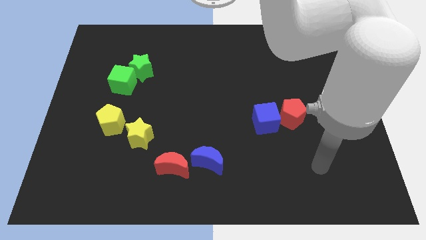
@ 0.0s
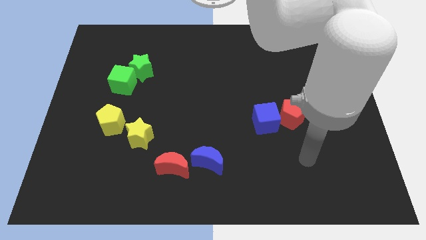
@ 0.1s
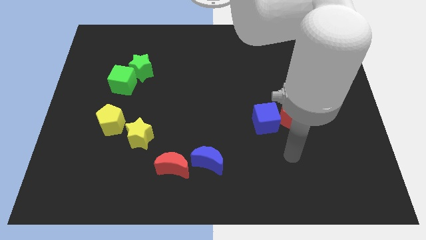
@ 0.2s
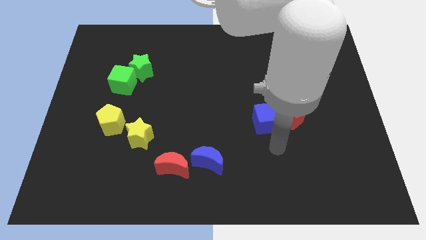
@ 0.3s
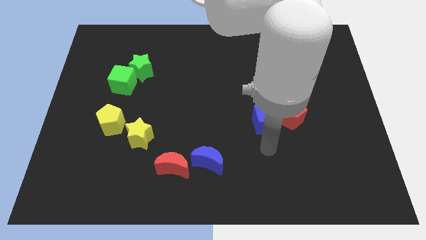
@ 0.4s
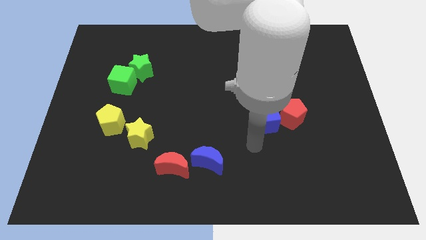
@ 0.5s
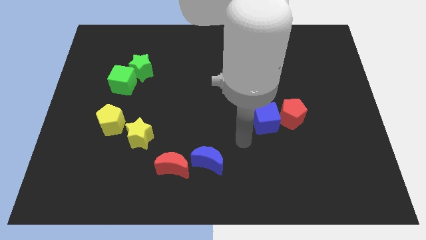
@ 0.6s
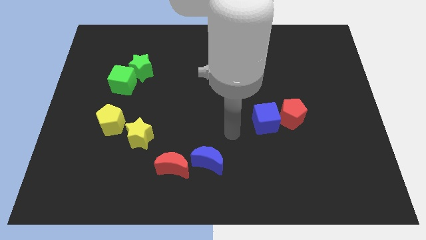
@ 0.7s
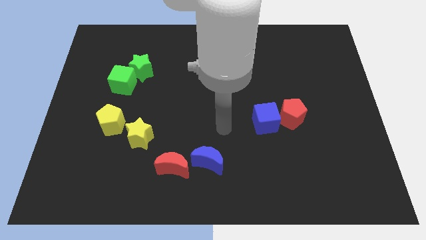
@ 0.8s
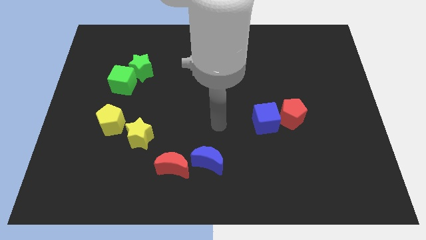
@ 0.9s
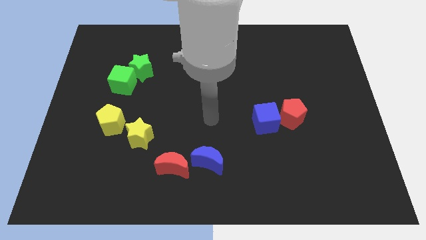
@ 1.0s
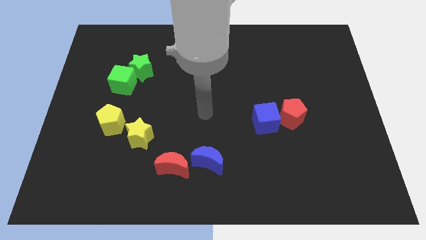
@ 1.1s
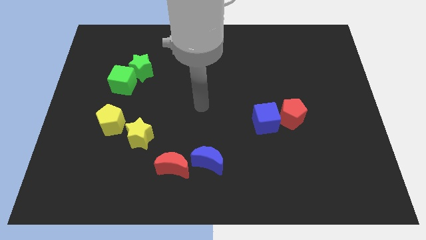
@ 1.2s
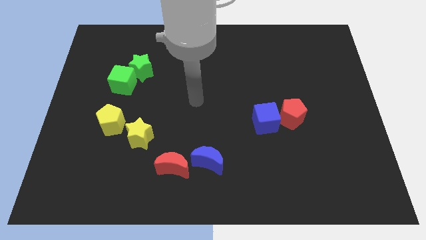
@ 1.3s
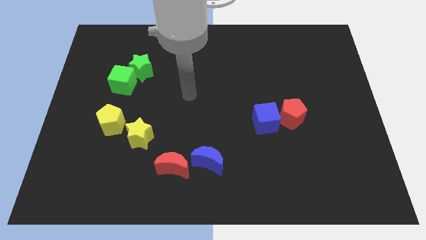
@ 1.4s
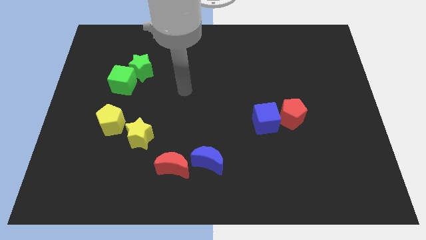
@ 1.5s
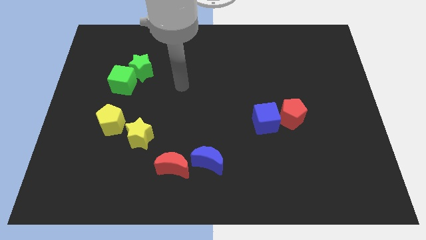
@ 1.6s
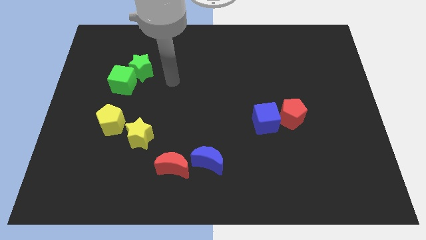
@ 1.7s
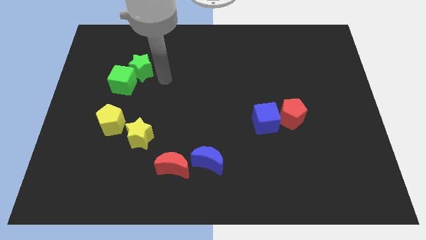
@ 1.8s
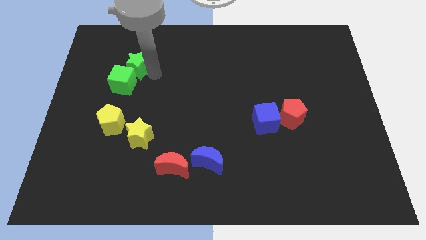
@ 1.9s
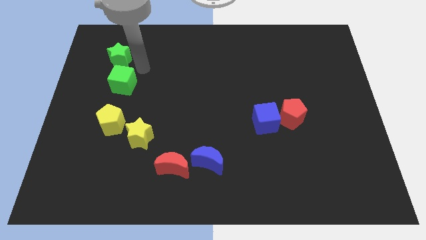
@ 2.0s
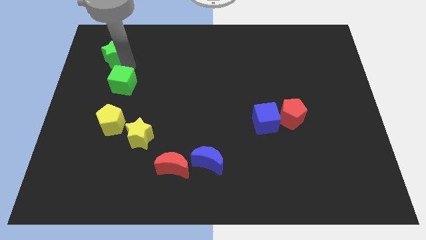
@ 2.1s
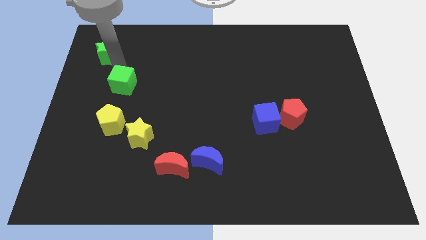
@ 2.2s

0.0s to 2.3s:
move the green cube away from the green star

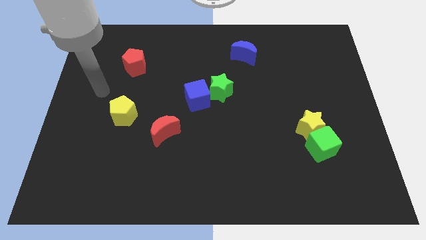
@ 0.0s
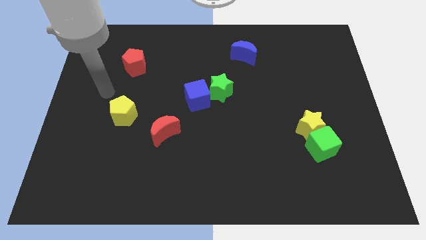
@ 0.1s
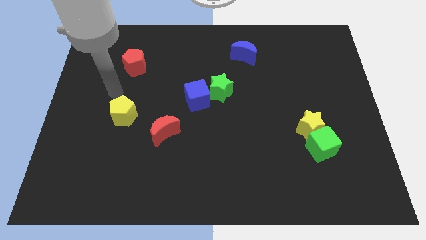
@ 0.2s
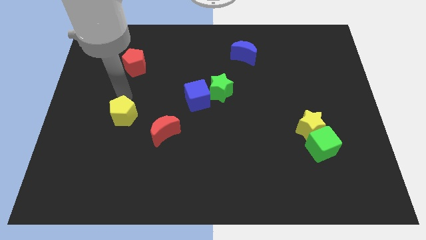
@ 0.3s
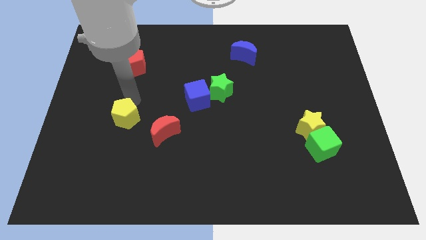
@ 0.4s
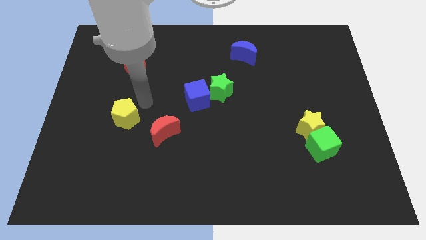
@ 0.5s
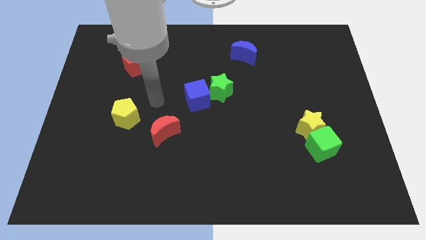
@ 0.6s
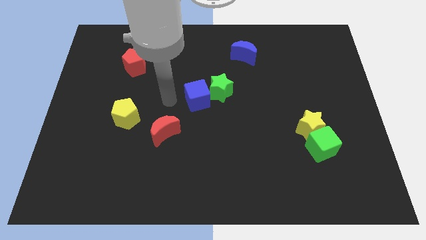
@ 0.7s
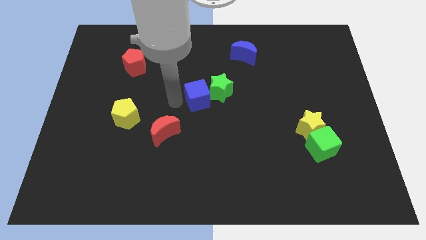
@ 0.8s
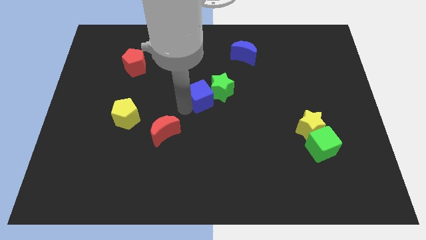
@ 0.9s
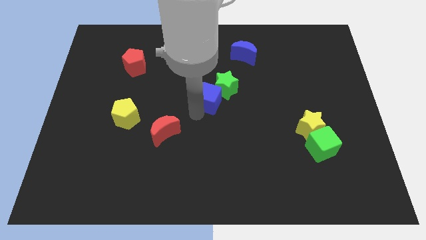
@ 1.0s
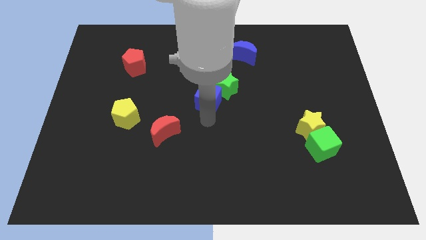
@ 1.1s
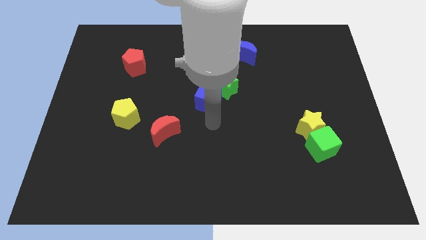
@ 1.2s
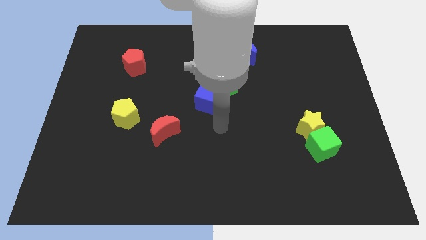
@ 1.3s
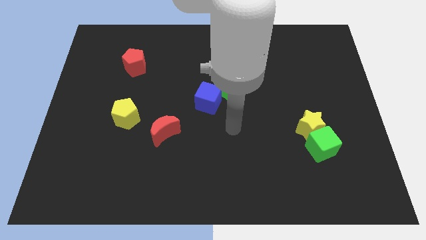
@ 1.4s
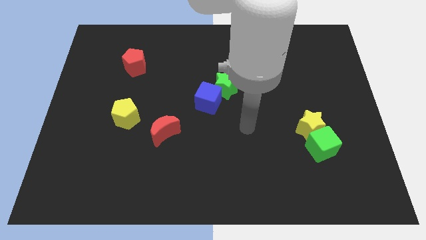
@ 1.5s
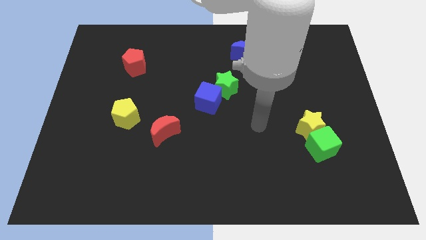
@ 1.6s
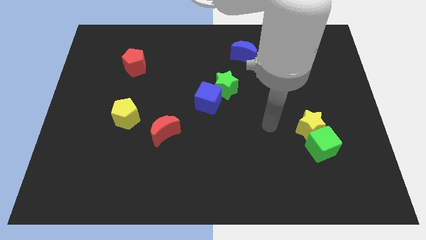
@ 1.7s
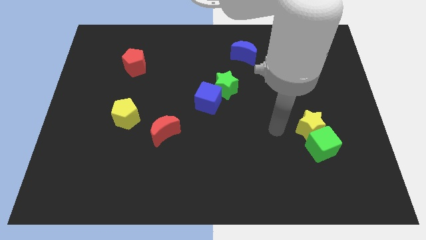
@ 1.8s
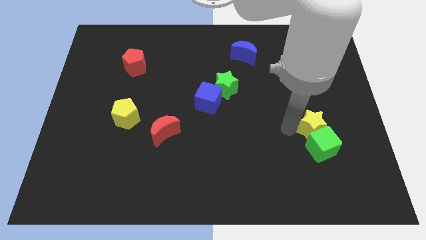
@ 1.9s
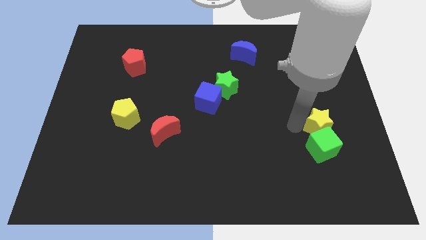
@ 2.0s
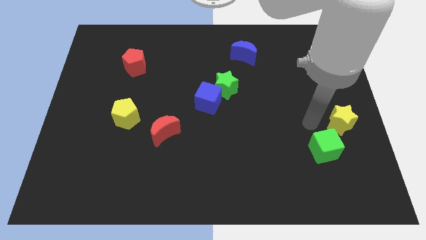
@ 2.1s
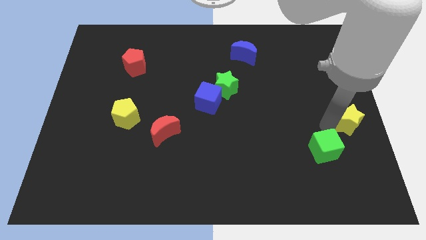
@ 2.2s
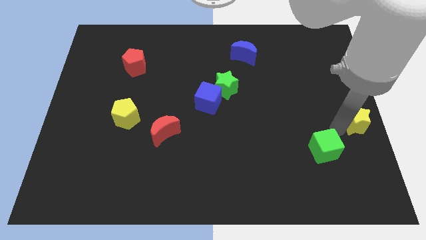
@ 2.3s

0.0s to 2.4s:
separate the green cube from the yellow star

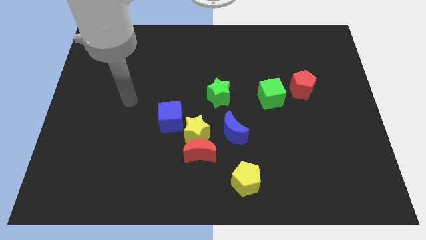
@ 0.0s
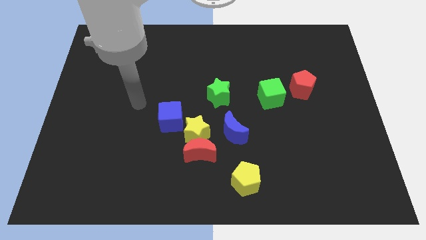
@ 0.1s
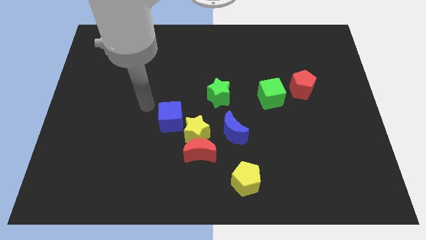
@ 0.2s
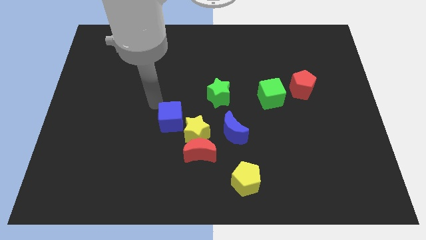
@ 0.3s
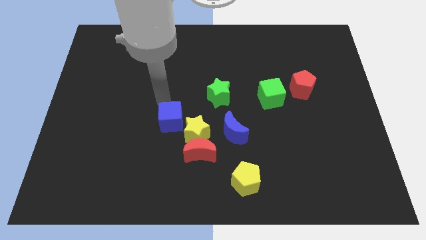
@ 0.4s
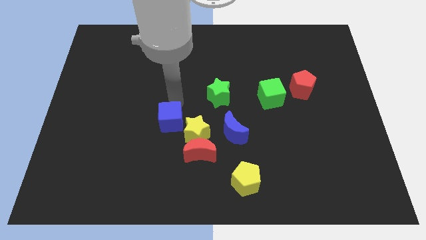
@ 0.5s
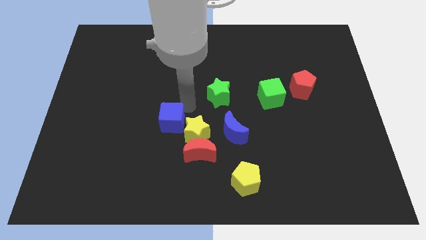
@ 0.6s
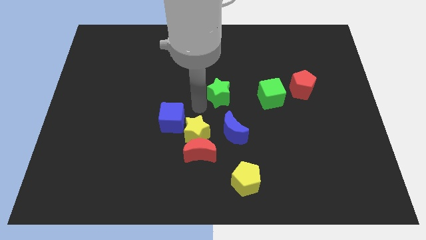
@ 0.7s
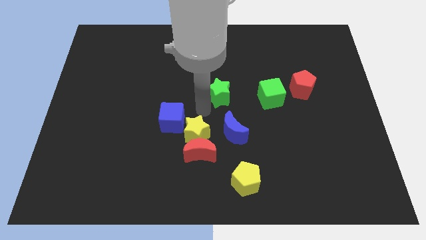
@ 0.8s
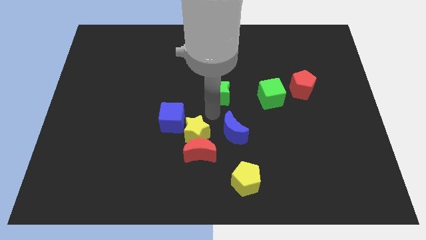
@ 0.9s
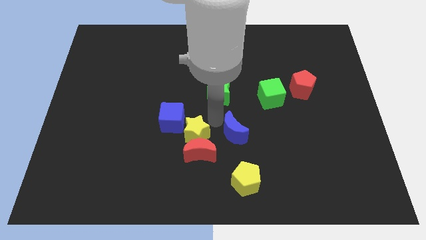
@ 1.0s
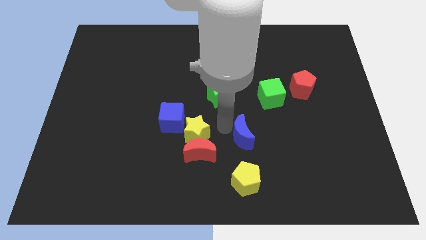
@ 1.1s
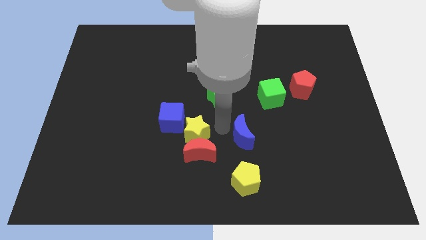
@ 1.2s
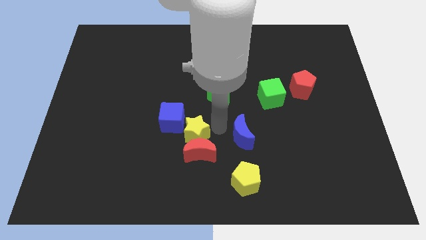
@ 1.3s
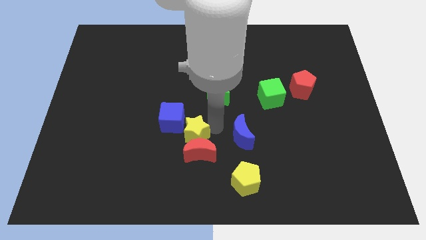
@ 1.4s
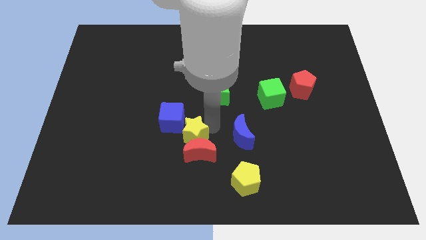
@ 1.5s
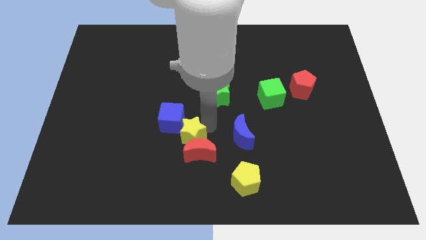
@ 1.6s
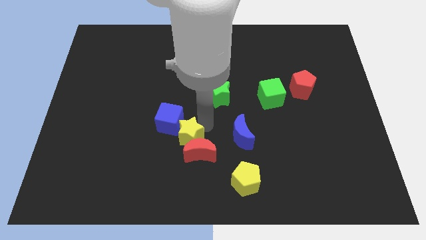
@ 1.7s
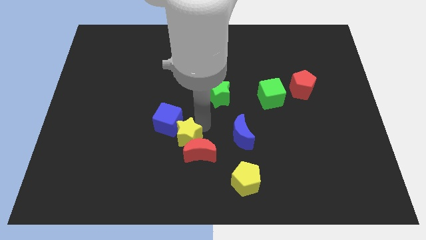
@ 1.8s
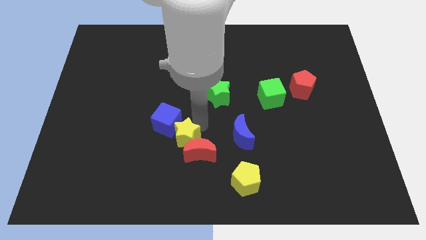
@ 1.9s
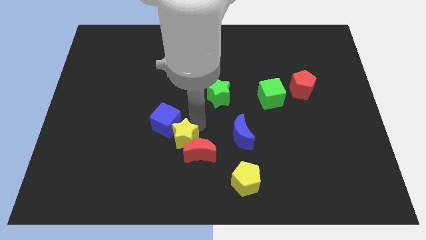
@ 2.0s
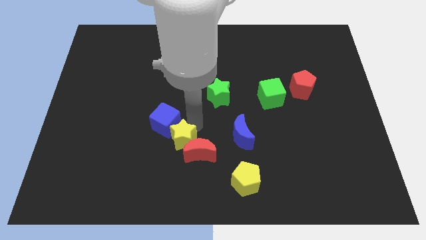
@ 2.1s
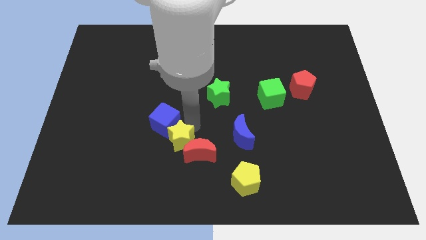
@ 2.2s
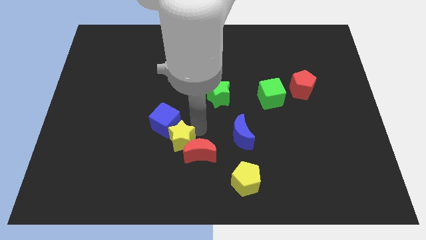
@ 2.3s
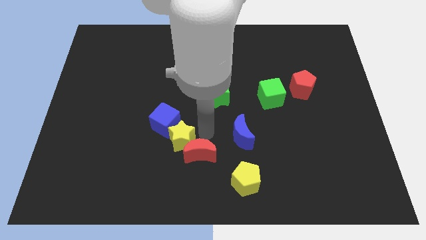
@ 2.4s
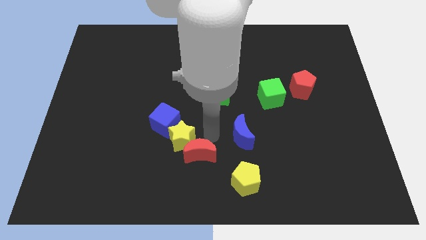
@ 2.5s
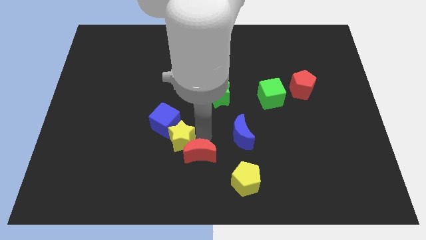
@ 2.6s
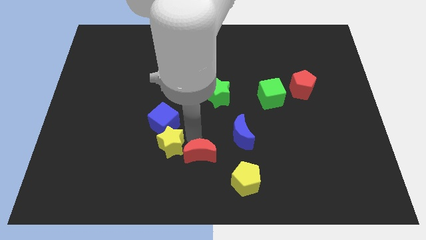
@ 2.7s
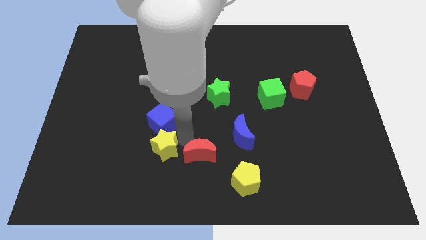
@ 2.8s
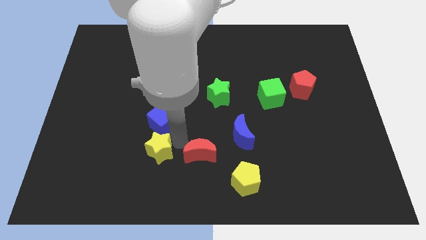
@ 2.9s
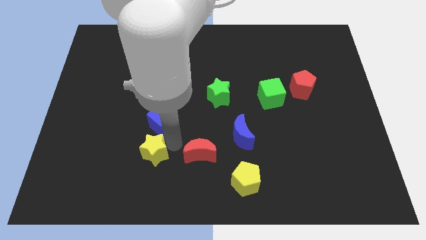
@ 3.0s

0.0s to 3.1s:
separate the yellow star from the red moon, blue cube, and blue moon

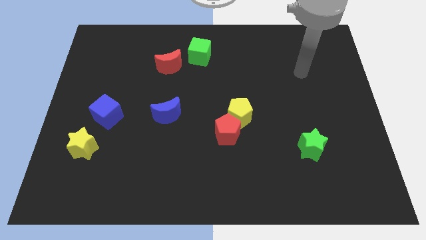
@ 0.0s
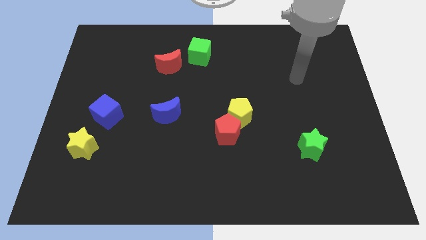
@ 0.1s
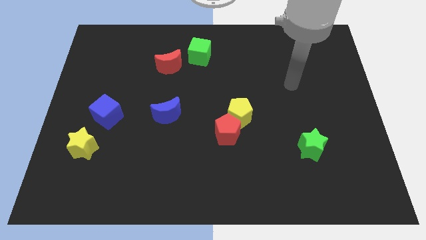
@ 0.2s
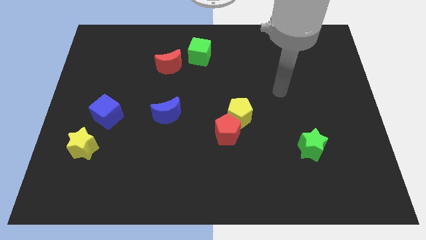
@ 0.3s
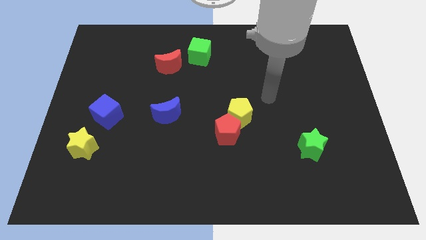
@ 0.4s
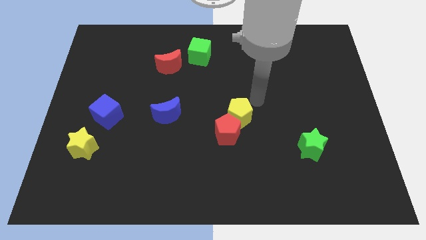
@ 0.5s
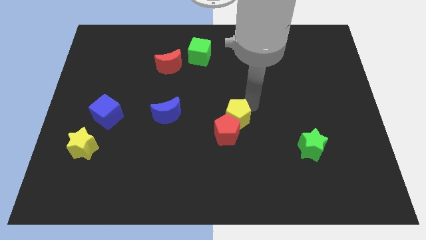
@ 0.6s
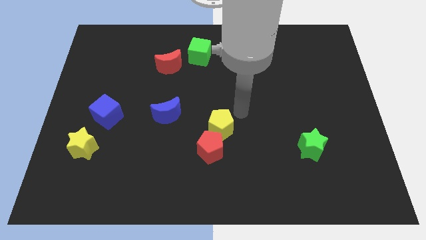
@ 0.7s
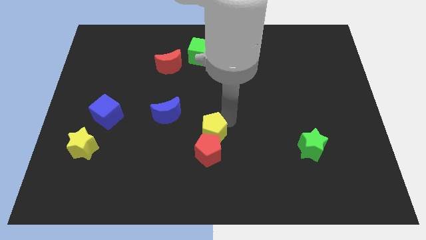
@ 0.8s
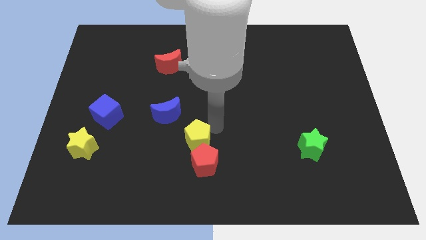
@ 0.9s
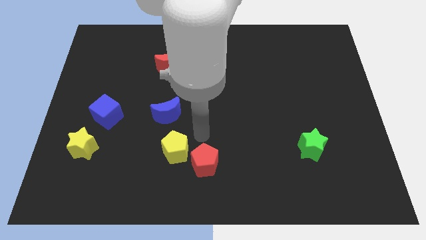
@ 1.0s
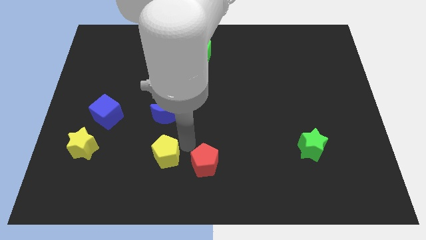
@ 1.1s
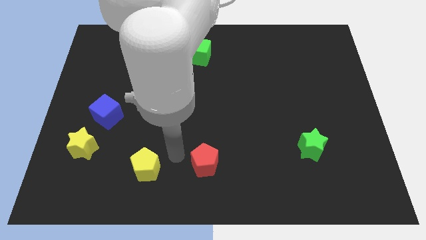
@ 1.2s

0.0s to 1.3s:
move the red pentagon away from the yellow pentagon

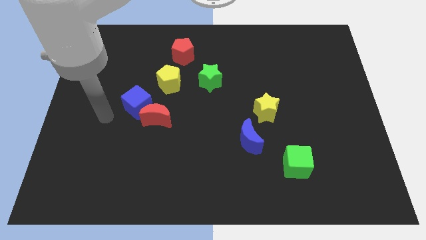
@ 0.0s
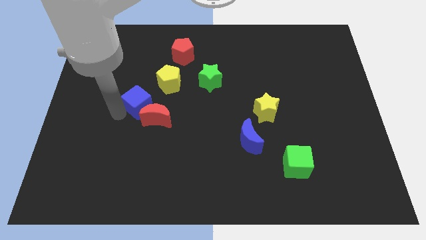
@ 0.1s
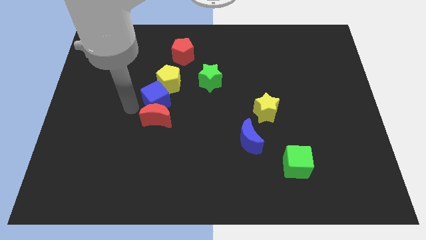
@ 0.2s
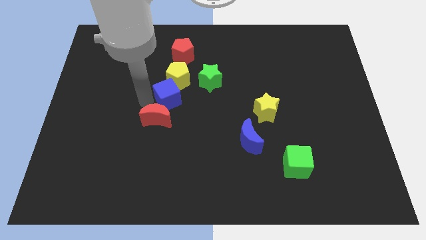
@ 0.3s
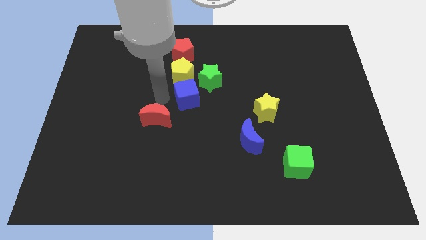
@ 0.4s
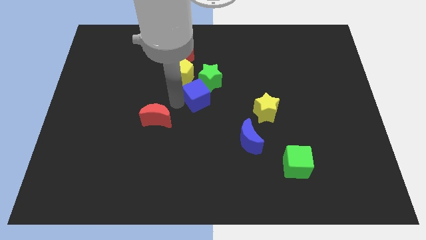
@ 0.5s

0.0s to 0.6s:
separate the red moon from the blue cube
